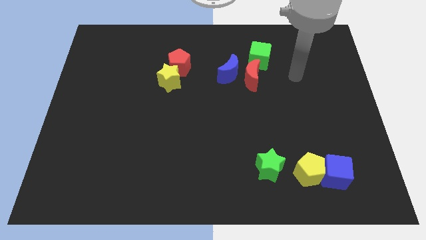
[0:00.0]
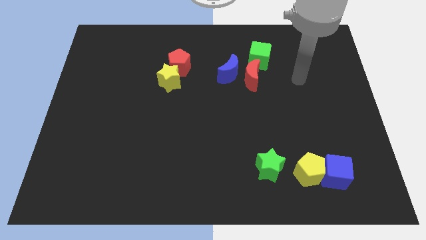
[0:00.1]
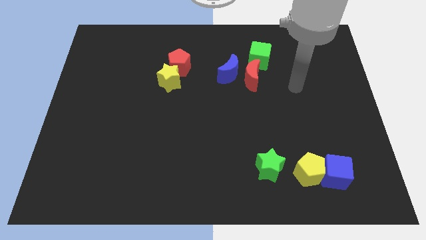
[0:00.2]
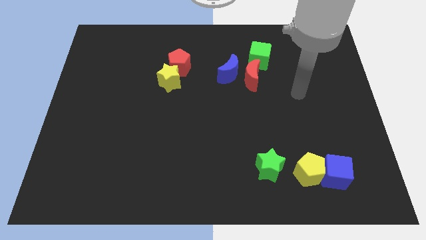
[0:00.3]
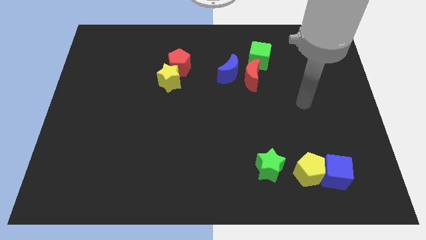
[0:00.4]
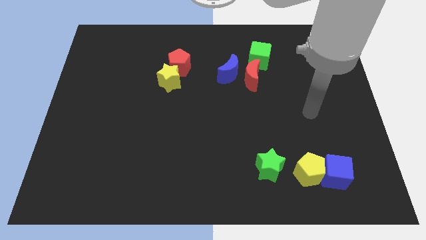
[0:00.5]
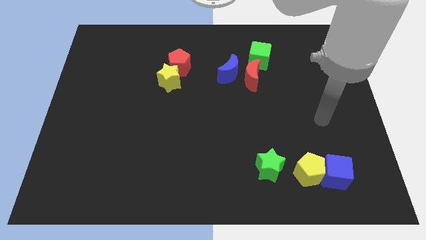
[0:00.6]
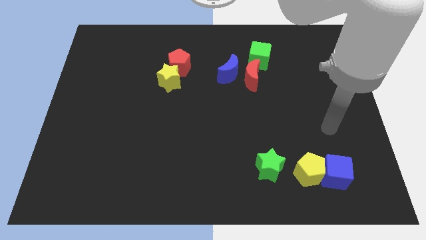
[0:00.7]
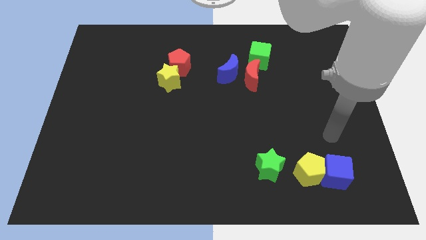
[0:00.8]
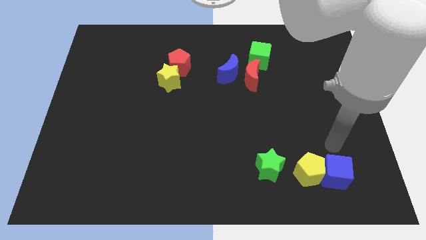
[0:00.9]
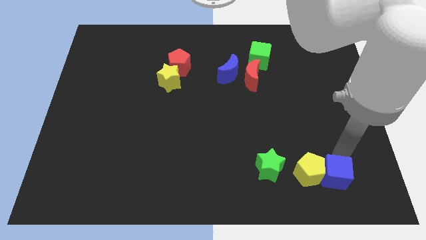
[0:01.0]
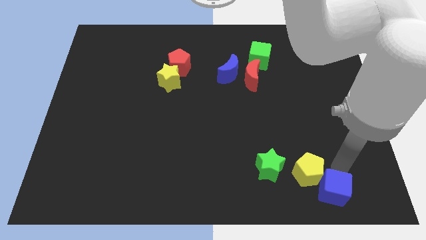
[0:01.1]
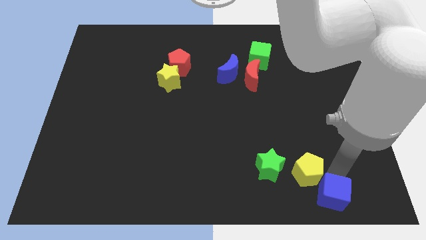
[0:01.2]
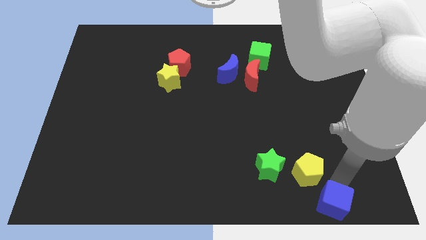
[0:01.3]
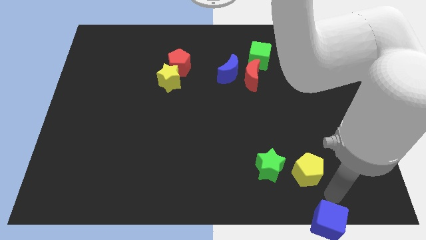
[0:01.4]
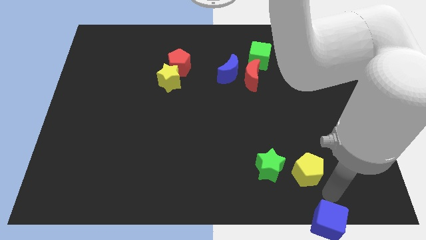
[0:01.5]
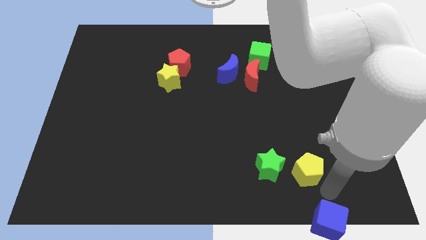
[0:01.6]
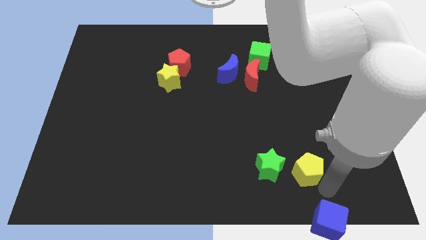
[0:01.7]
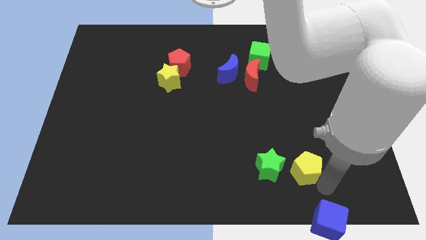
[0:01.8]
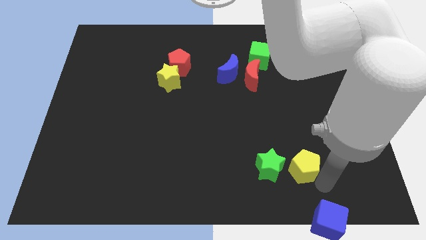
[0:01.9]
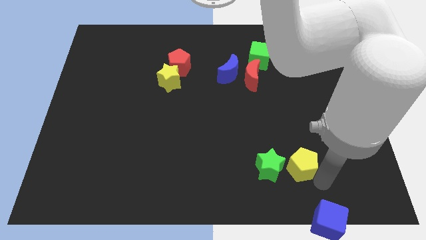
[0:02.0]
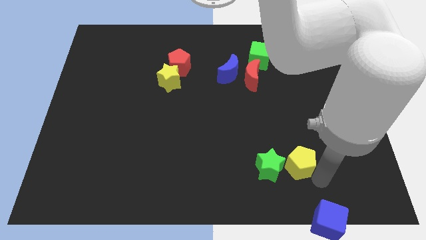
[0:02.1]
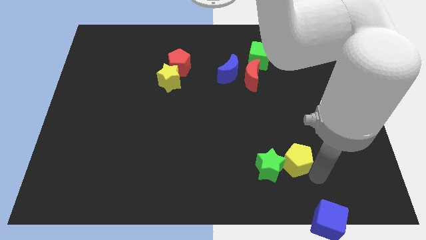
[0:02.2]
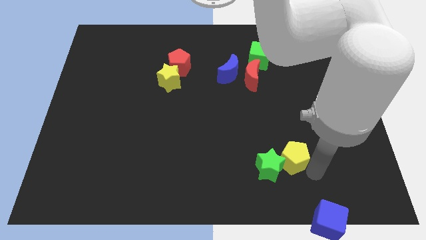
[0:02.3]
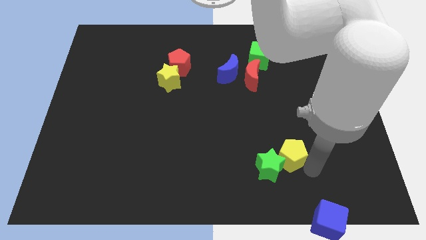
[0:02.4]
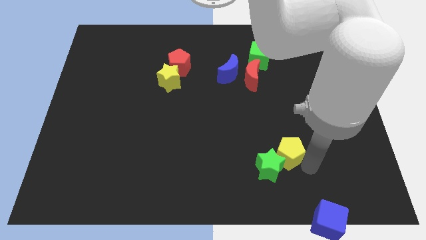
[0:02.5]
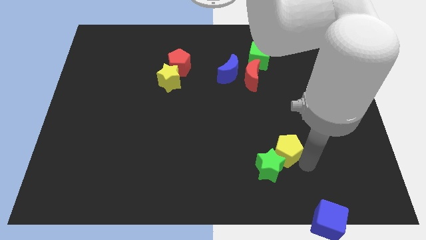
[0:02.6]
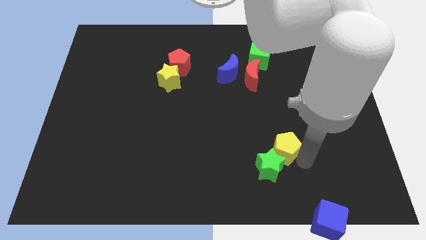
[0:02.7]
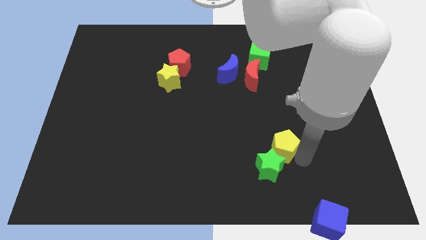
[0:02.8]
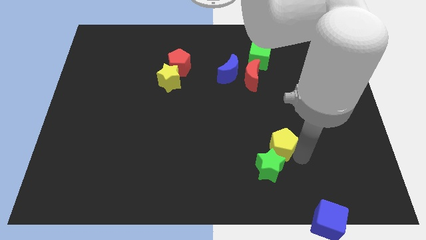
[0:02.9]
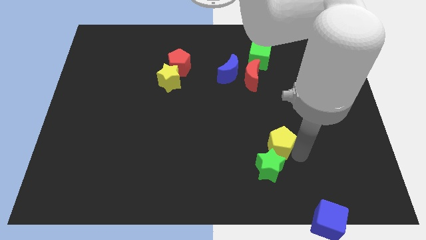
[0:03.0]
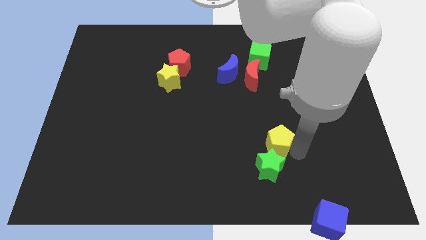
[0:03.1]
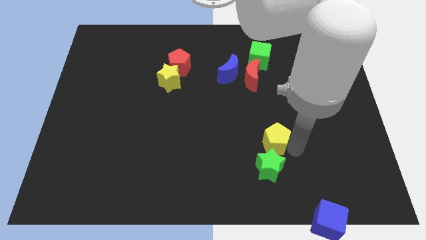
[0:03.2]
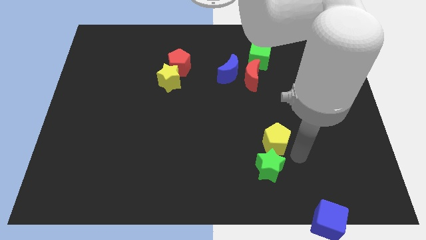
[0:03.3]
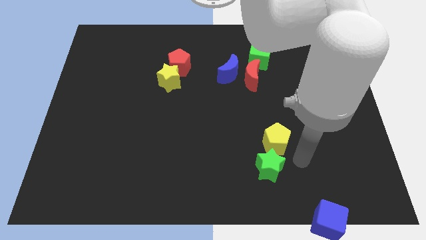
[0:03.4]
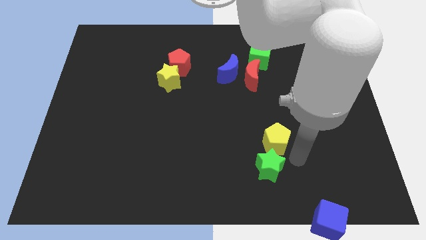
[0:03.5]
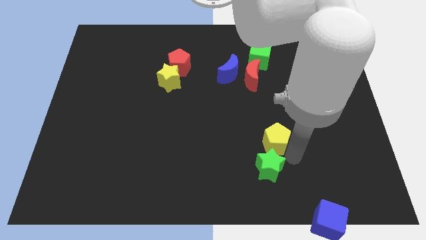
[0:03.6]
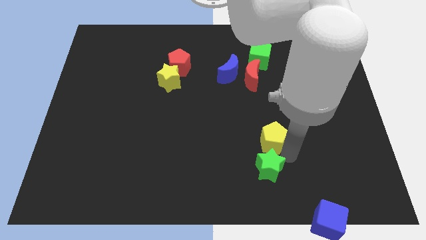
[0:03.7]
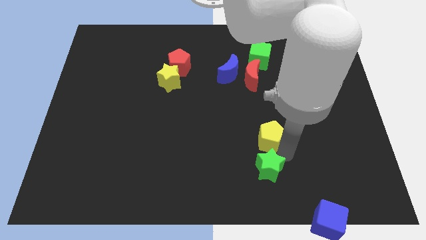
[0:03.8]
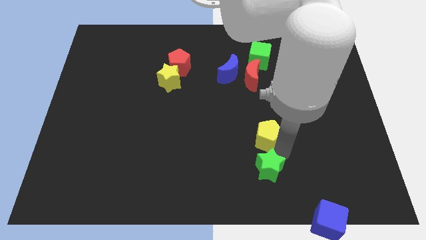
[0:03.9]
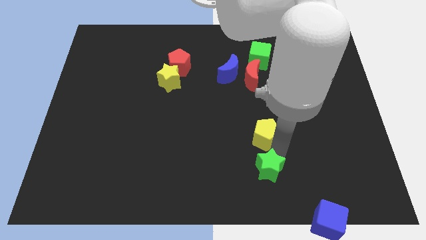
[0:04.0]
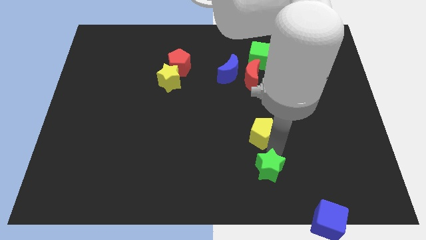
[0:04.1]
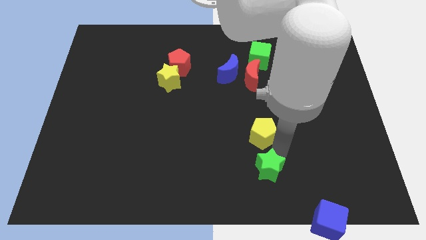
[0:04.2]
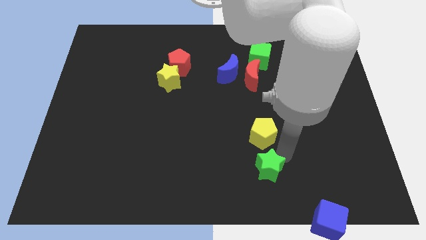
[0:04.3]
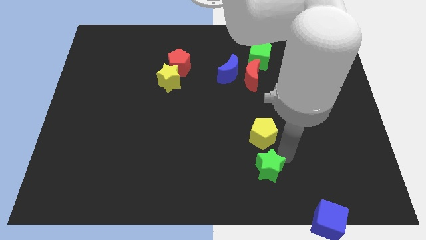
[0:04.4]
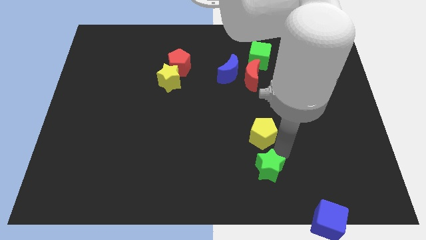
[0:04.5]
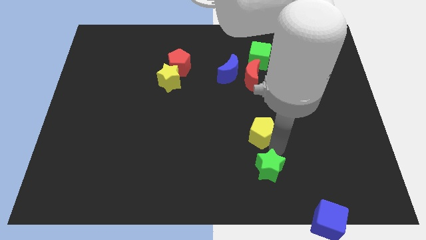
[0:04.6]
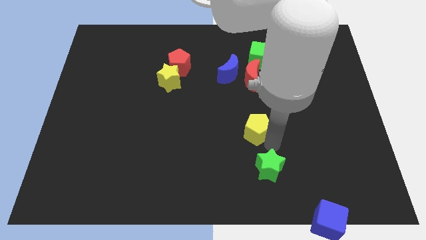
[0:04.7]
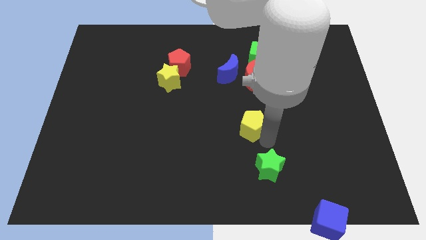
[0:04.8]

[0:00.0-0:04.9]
move the yellow pentagon to the center

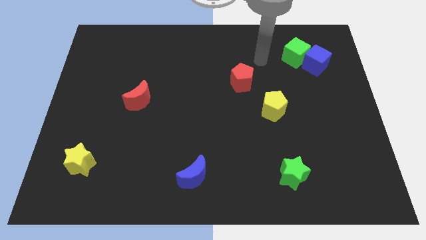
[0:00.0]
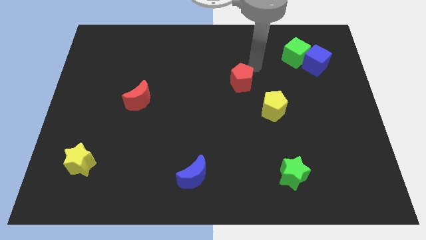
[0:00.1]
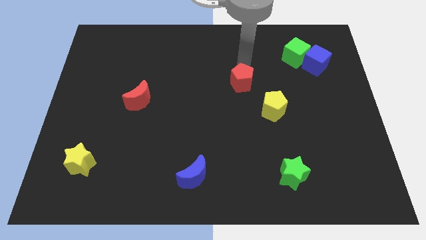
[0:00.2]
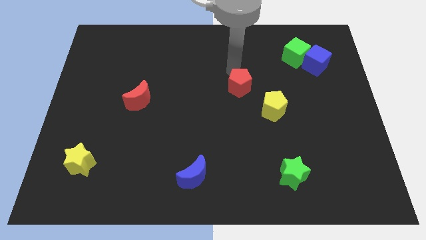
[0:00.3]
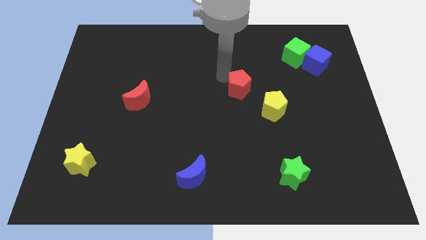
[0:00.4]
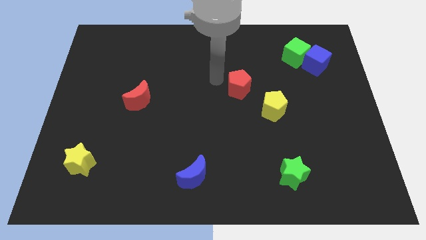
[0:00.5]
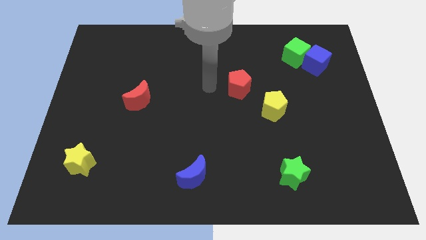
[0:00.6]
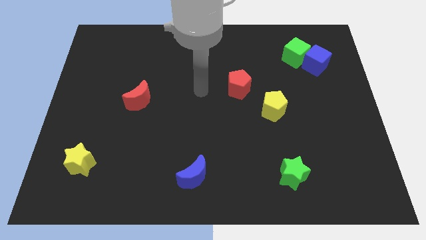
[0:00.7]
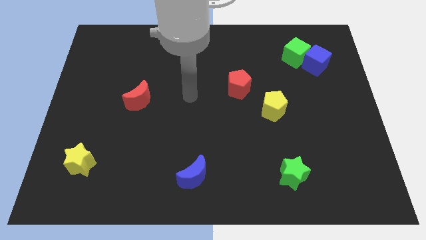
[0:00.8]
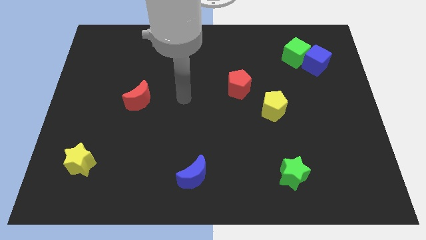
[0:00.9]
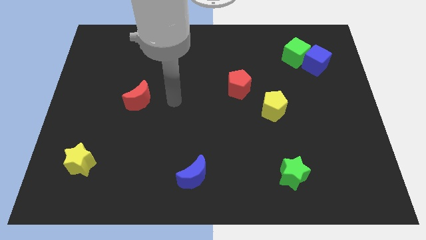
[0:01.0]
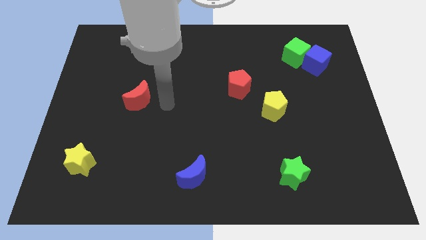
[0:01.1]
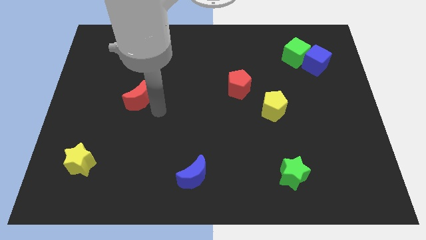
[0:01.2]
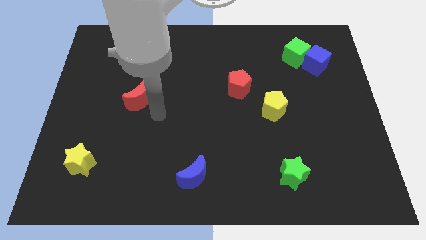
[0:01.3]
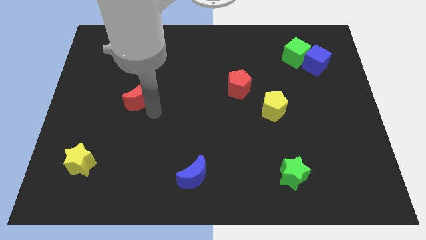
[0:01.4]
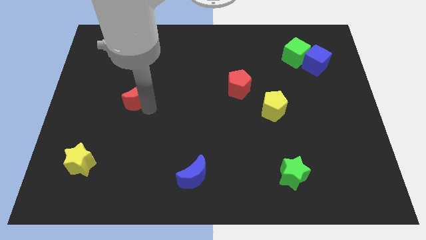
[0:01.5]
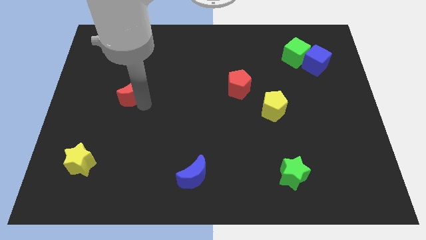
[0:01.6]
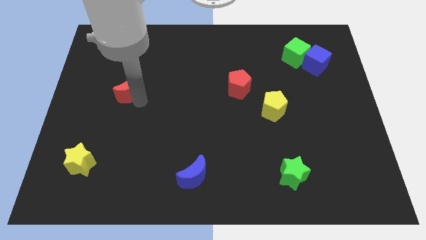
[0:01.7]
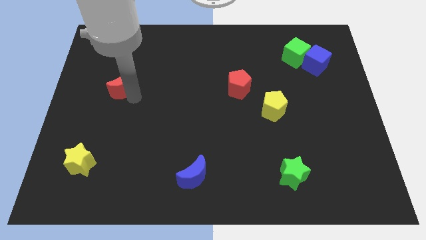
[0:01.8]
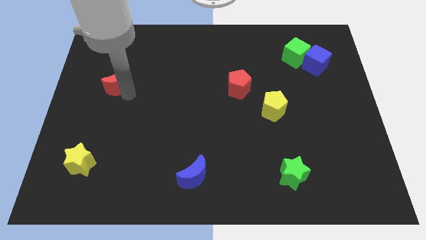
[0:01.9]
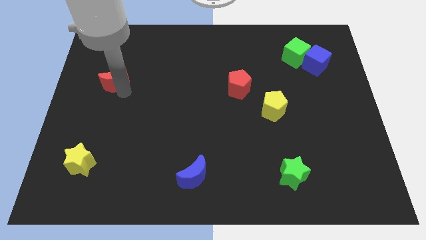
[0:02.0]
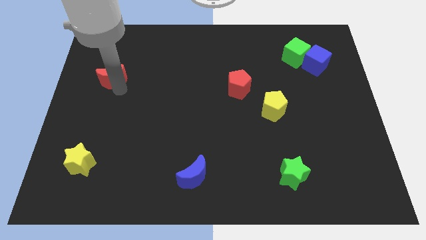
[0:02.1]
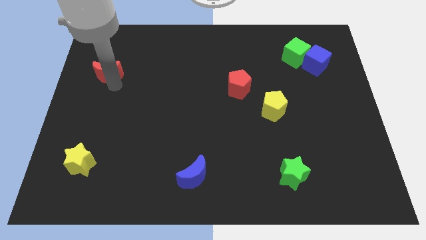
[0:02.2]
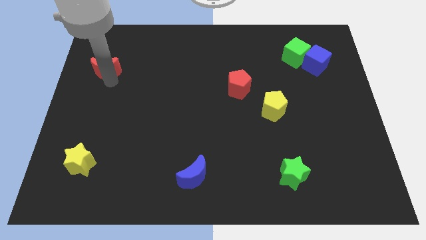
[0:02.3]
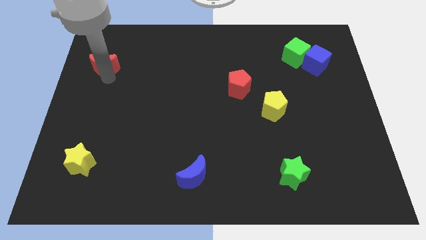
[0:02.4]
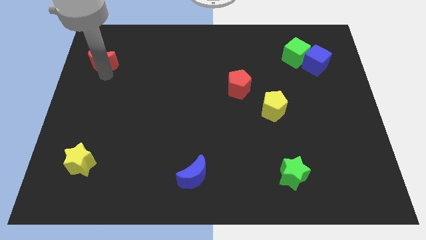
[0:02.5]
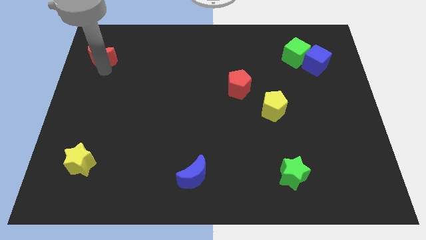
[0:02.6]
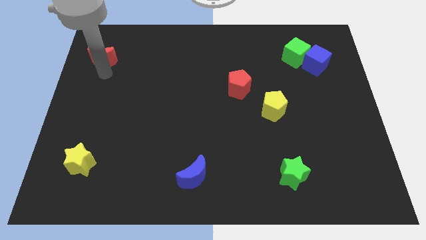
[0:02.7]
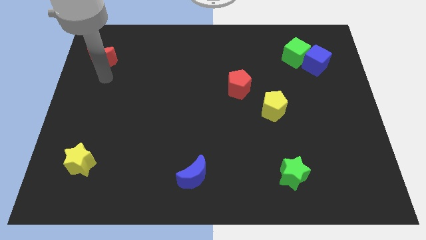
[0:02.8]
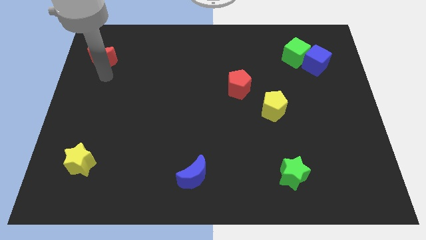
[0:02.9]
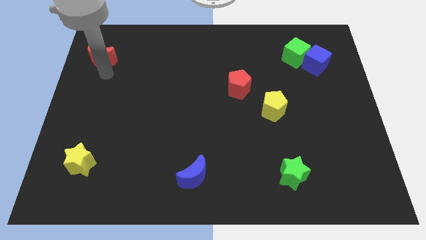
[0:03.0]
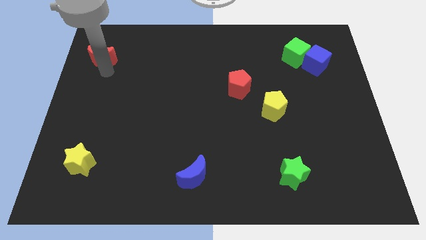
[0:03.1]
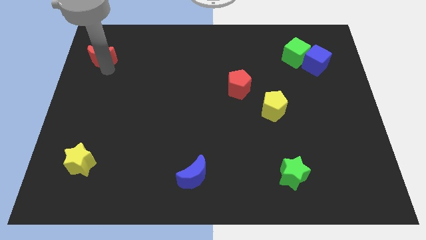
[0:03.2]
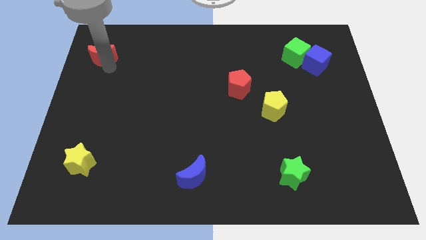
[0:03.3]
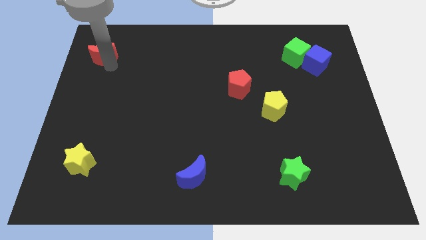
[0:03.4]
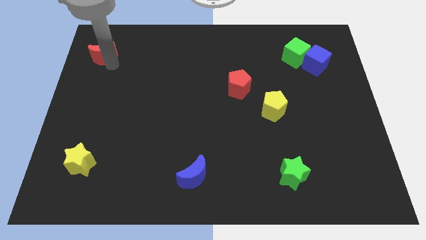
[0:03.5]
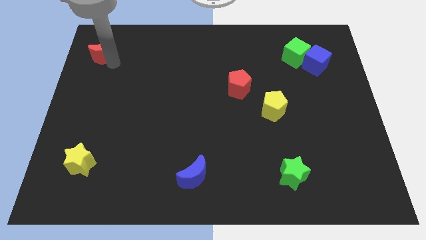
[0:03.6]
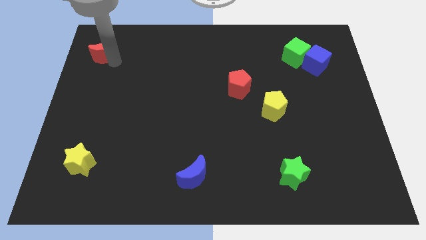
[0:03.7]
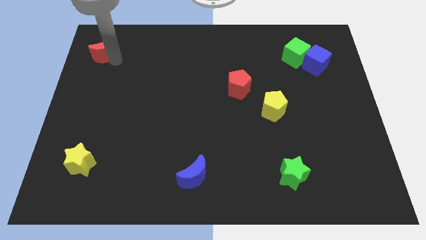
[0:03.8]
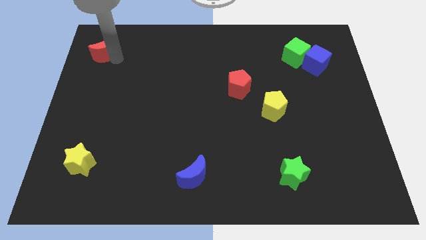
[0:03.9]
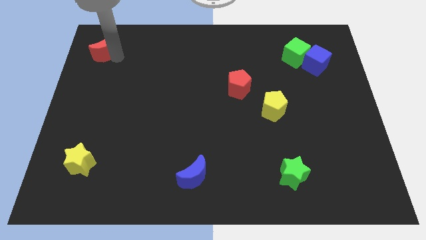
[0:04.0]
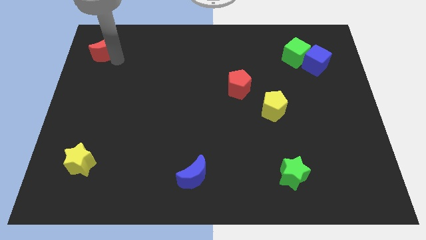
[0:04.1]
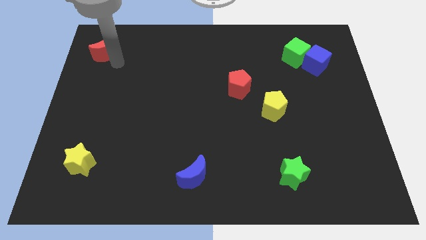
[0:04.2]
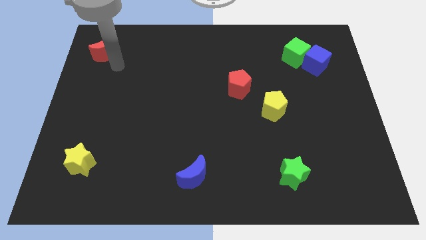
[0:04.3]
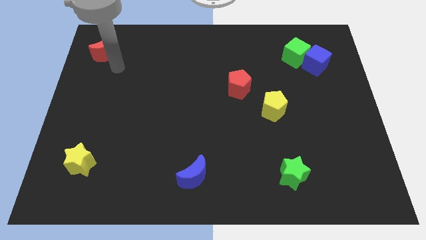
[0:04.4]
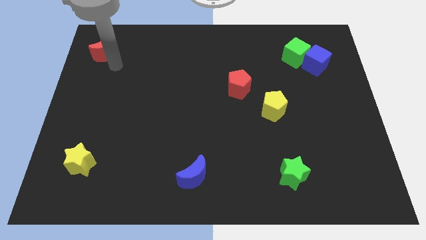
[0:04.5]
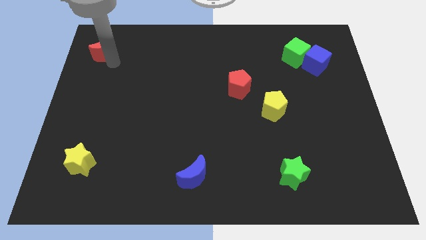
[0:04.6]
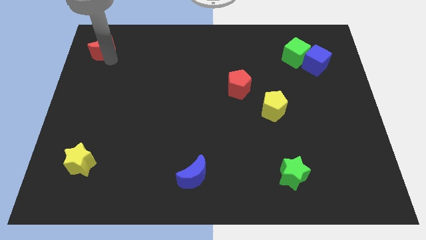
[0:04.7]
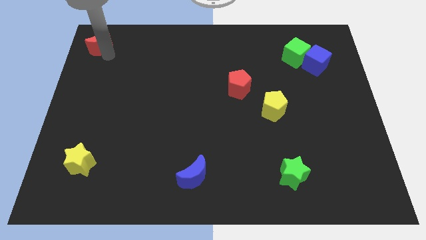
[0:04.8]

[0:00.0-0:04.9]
move the red moon to the upper left corner
